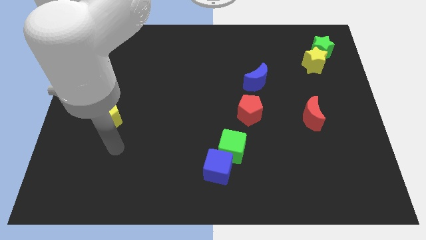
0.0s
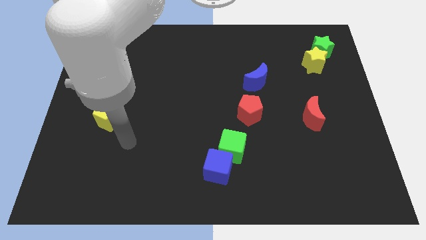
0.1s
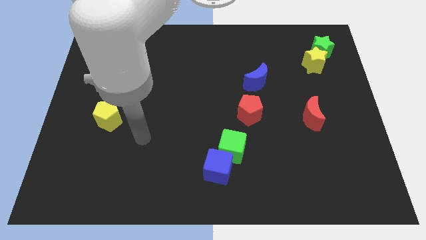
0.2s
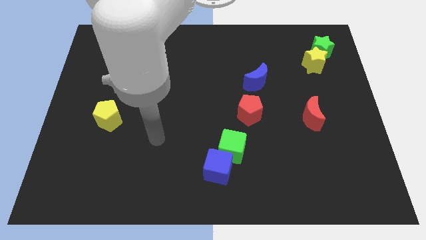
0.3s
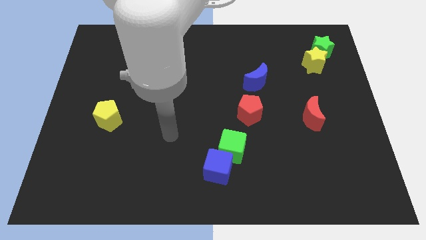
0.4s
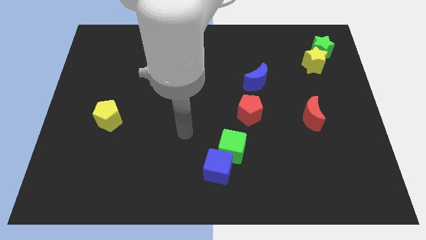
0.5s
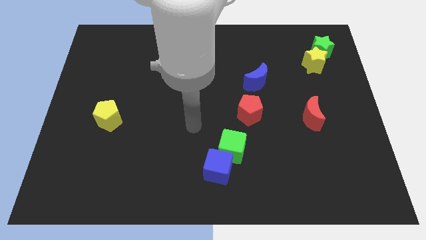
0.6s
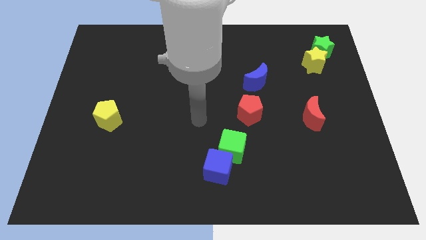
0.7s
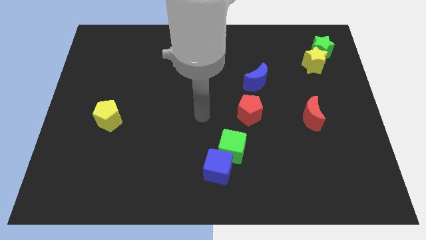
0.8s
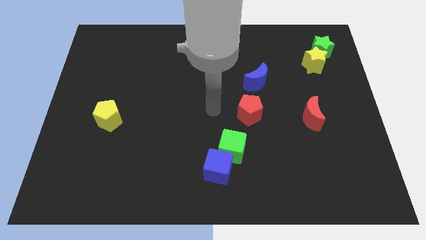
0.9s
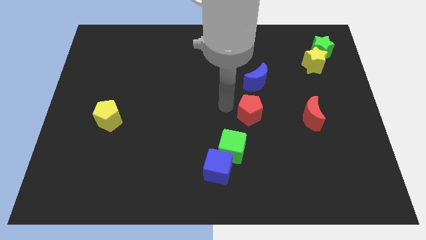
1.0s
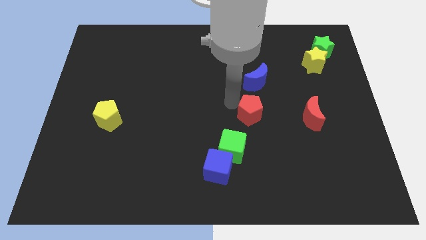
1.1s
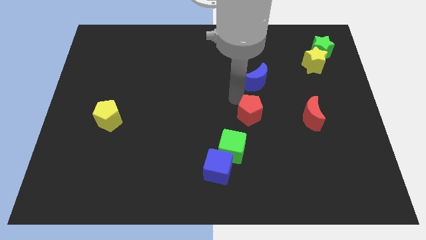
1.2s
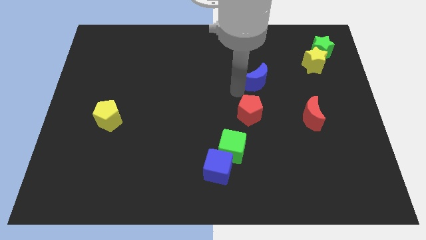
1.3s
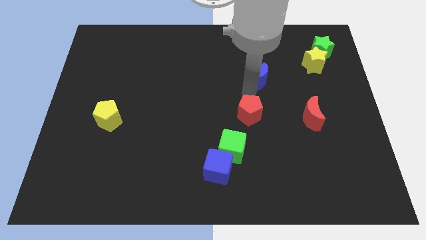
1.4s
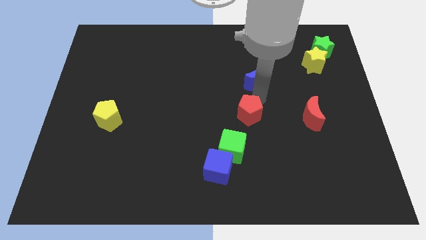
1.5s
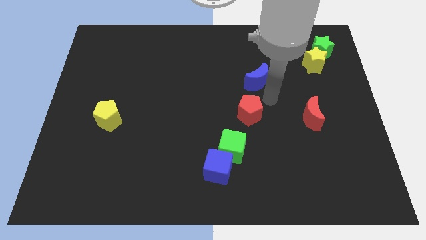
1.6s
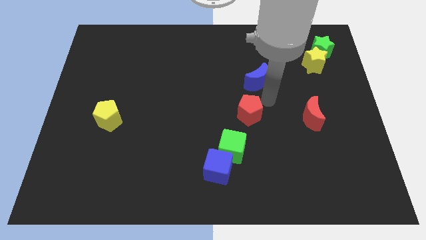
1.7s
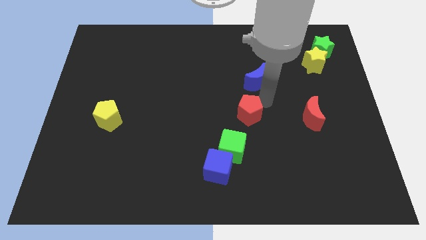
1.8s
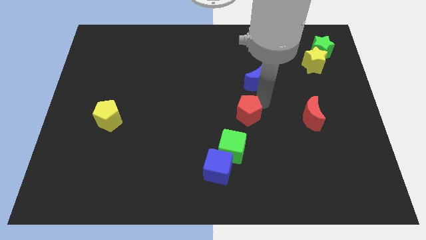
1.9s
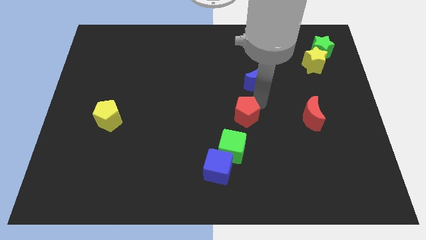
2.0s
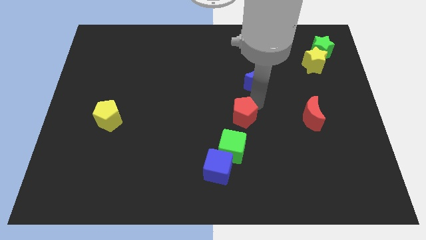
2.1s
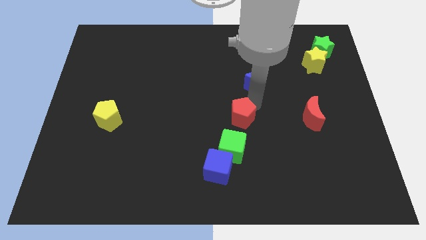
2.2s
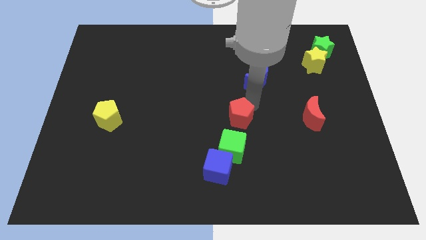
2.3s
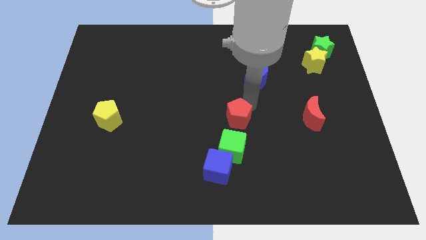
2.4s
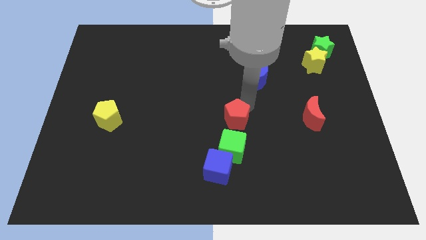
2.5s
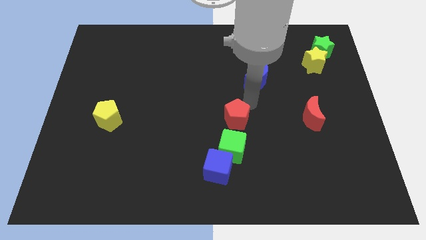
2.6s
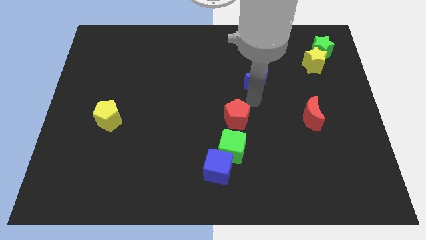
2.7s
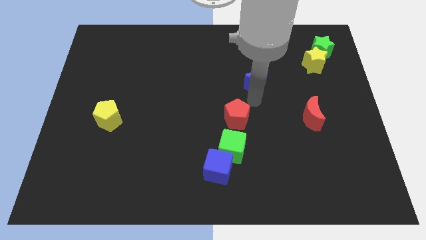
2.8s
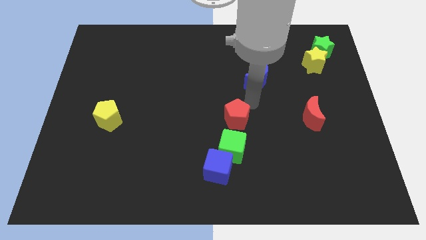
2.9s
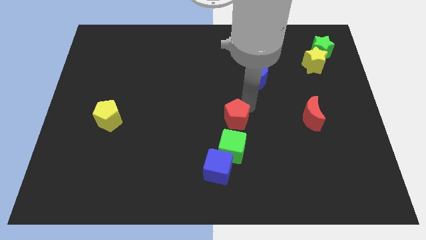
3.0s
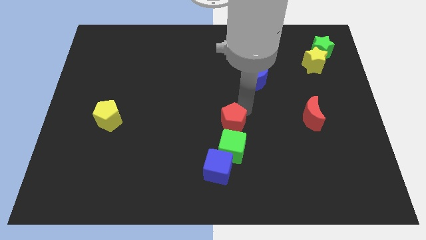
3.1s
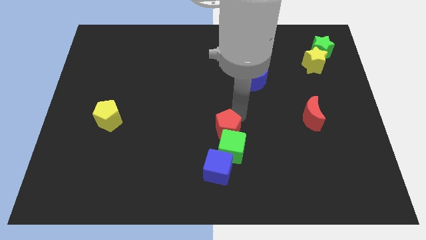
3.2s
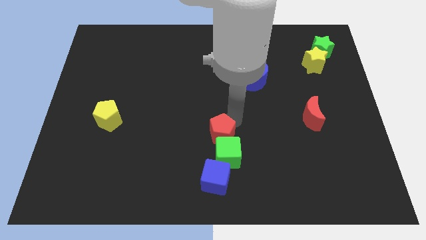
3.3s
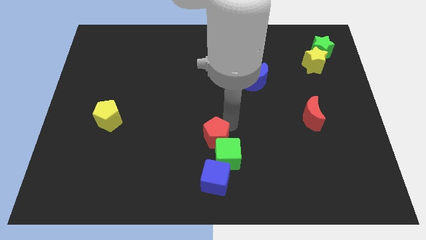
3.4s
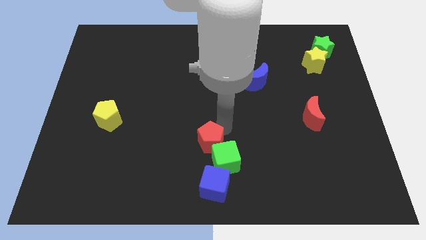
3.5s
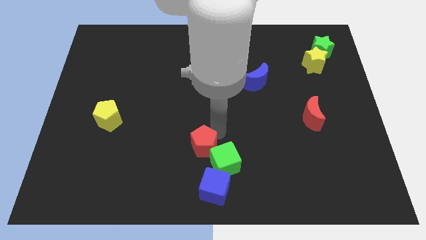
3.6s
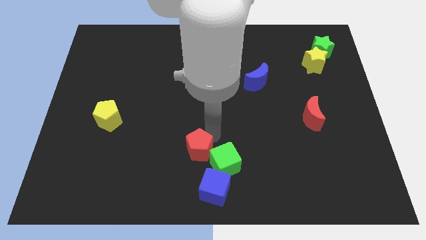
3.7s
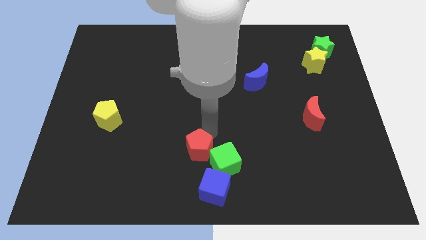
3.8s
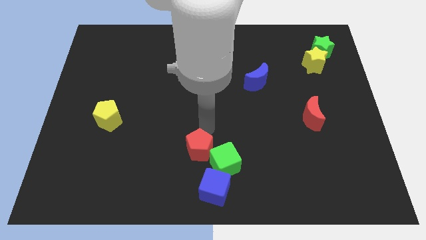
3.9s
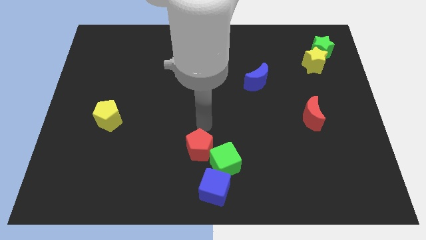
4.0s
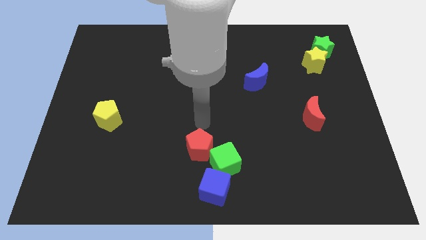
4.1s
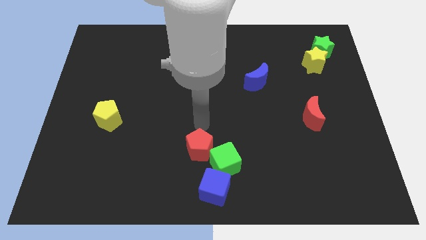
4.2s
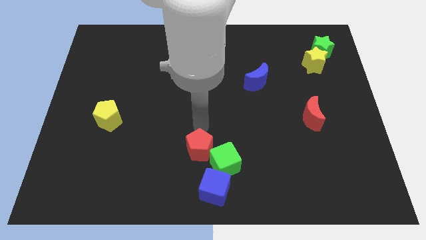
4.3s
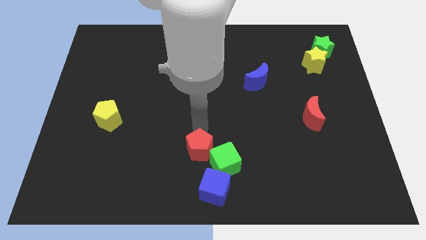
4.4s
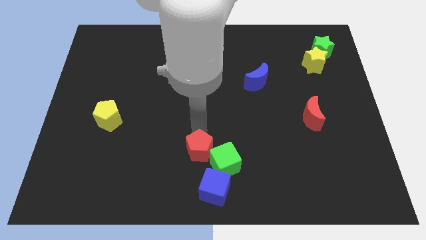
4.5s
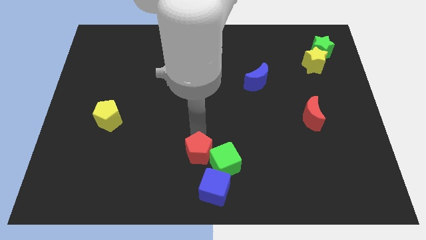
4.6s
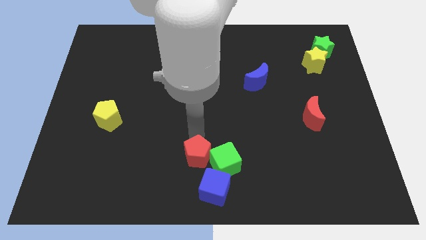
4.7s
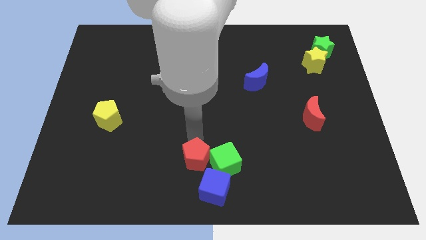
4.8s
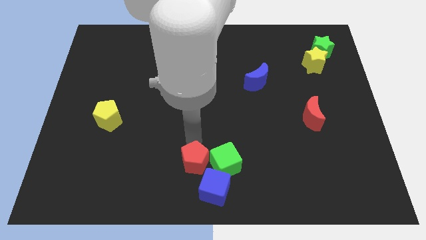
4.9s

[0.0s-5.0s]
slide the red pentagon to the bottom left side of the green cube

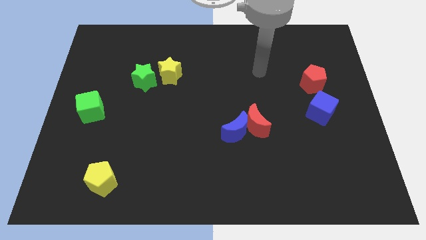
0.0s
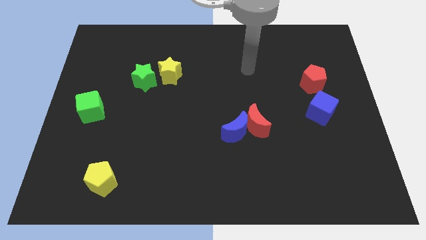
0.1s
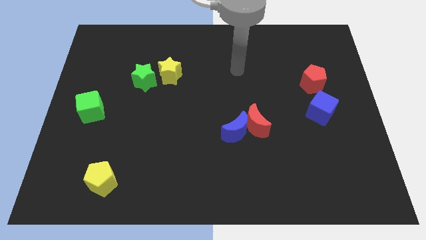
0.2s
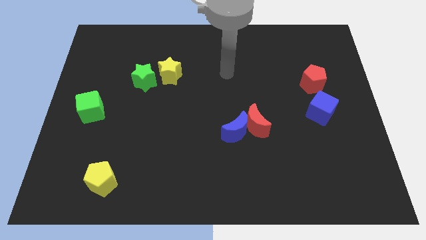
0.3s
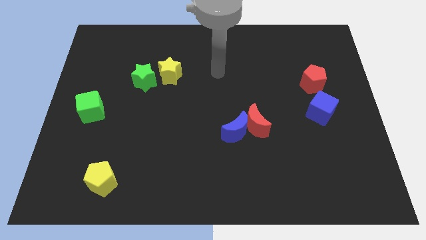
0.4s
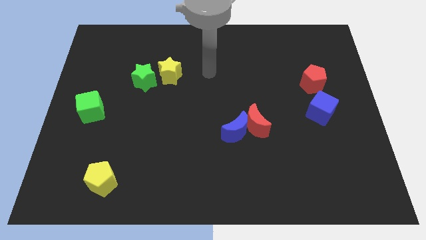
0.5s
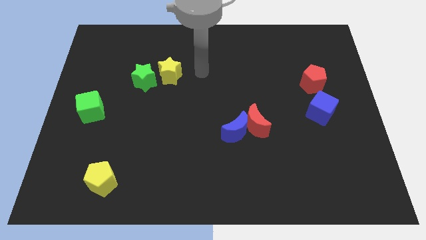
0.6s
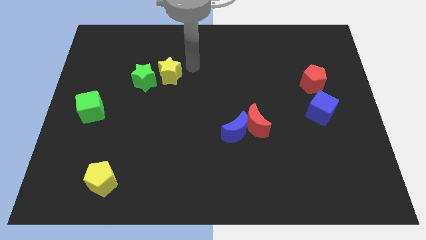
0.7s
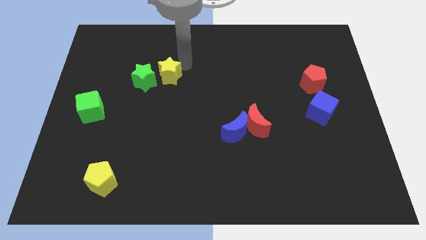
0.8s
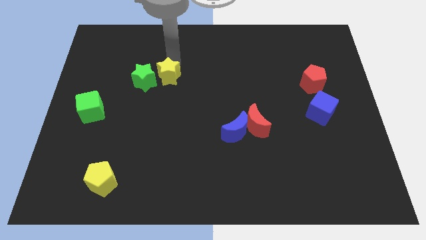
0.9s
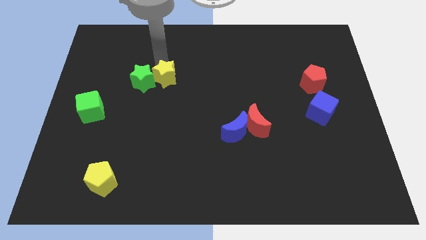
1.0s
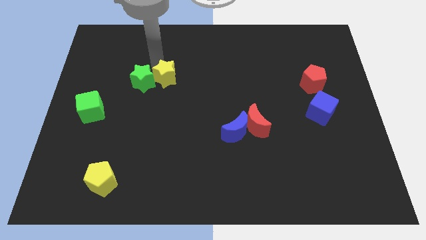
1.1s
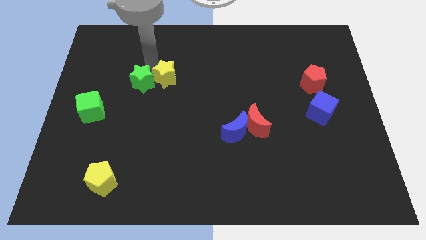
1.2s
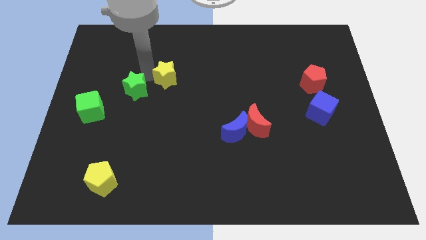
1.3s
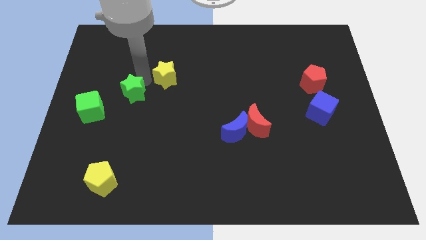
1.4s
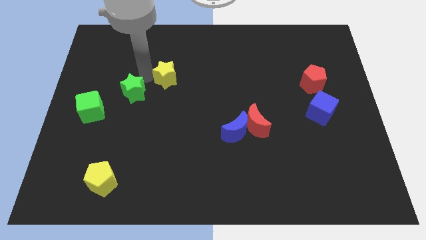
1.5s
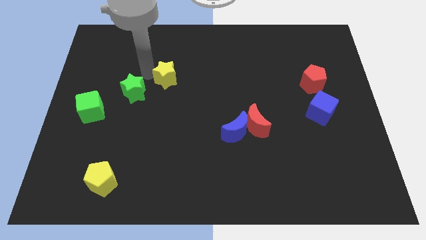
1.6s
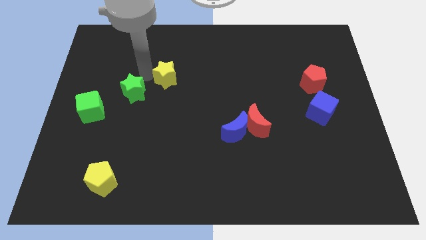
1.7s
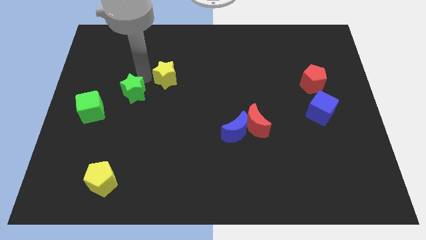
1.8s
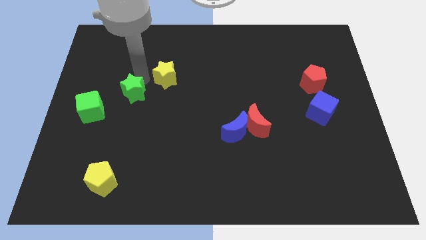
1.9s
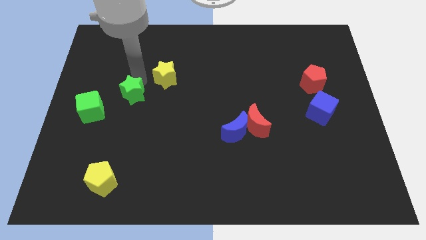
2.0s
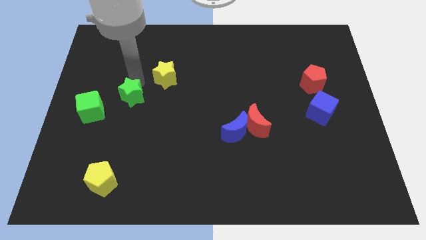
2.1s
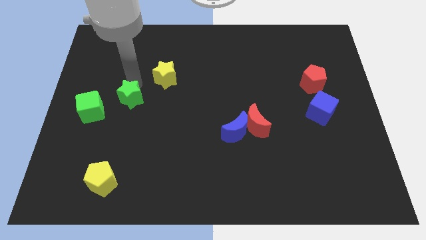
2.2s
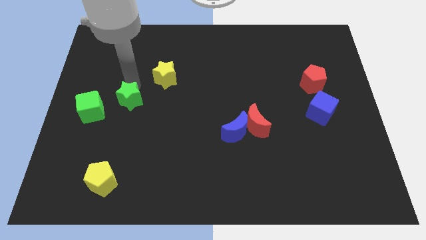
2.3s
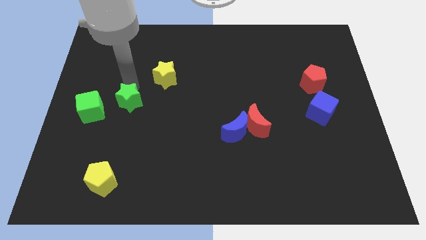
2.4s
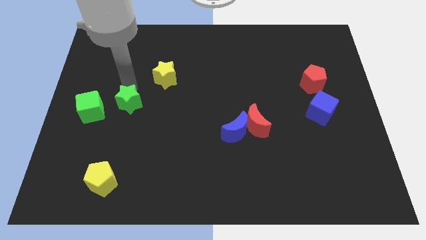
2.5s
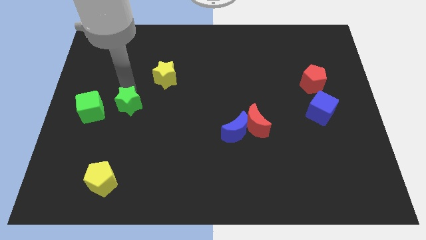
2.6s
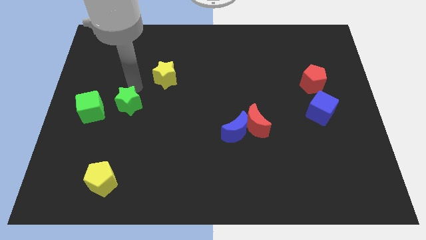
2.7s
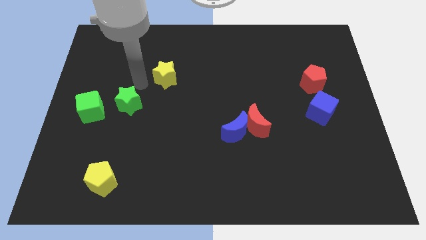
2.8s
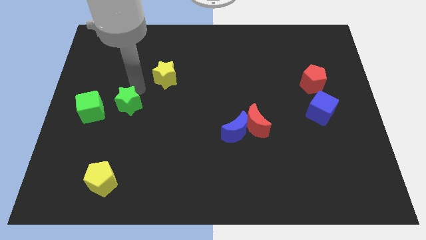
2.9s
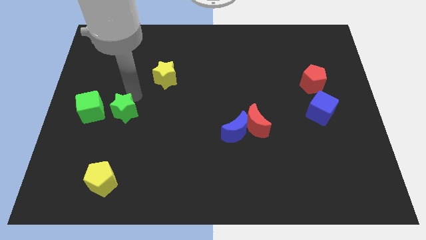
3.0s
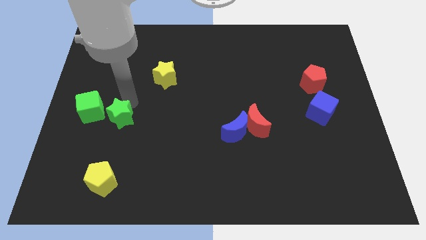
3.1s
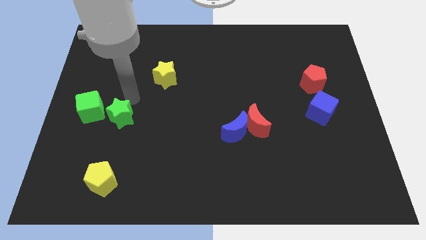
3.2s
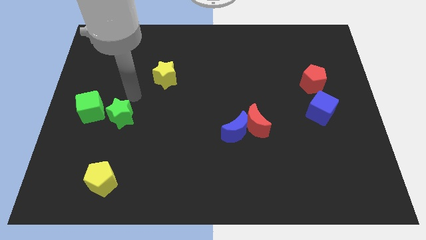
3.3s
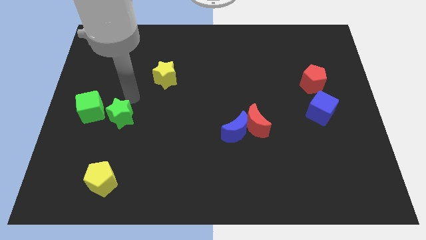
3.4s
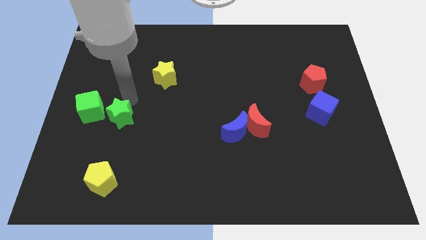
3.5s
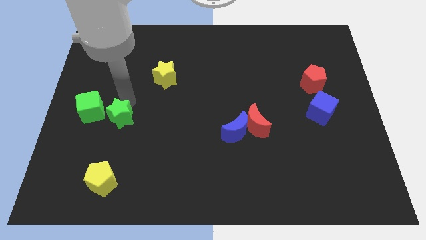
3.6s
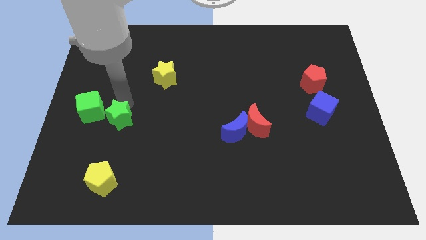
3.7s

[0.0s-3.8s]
put the green star above the yellow pentagon
